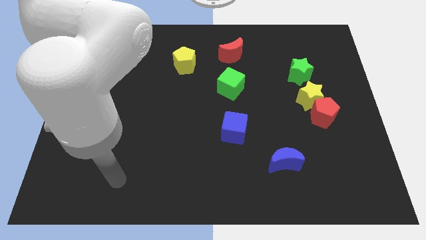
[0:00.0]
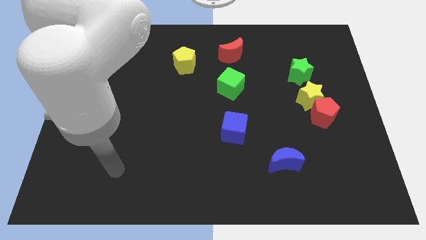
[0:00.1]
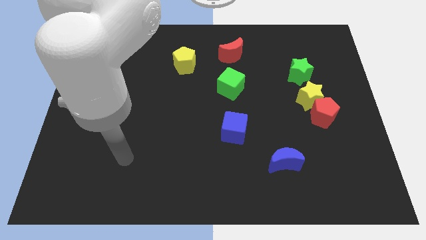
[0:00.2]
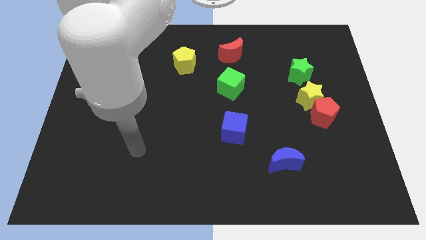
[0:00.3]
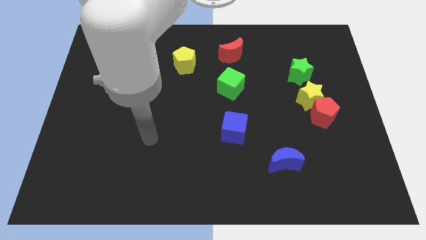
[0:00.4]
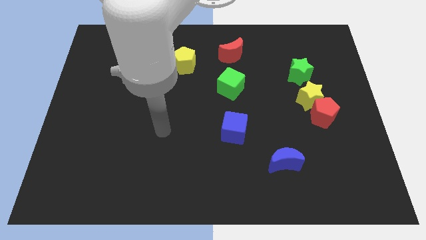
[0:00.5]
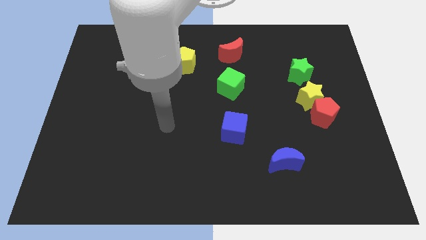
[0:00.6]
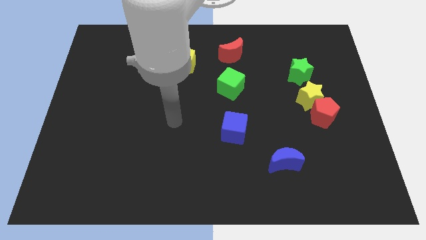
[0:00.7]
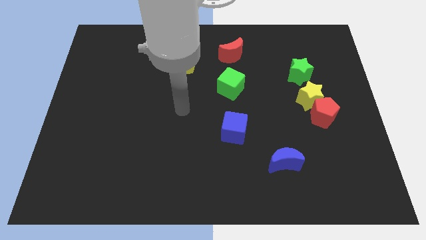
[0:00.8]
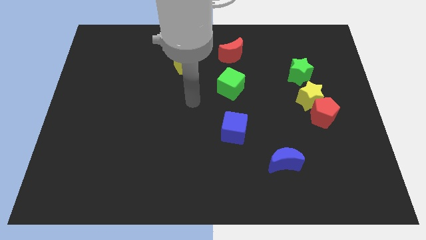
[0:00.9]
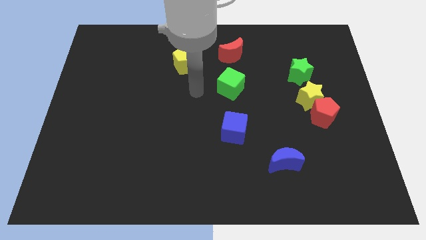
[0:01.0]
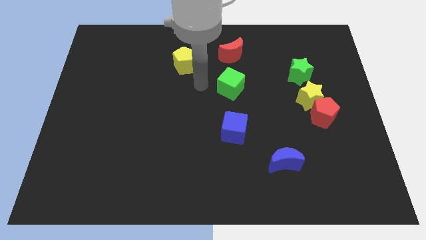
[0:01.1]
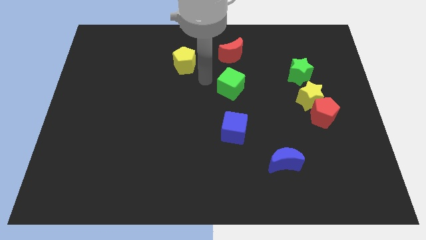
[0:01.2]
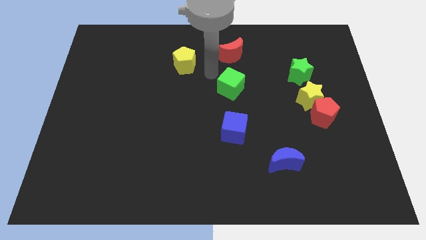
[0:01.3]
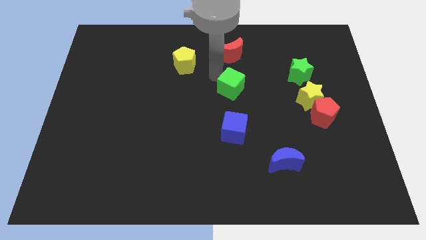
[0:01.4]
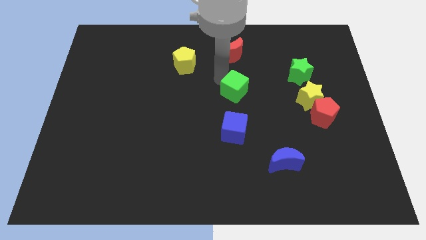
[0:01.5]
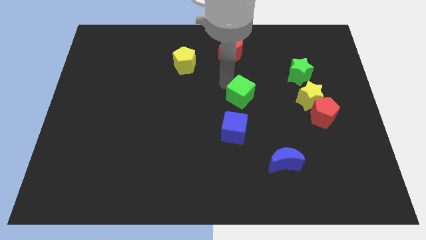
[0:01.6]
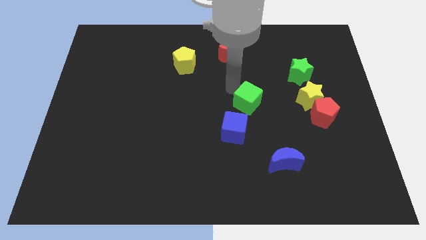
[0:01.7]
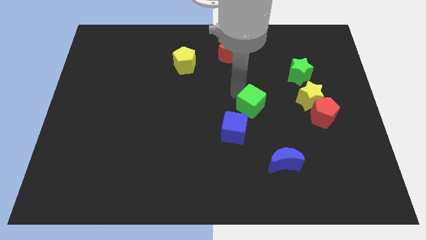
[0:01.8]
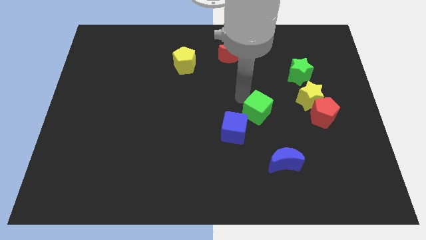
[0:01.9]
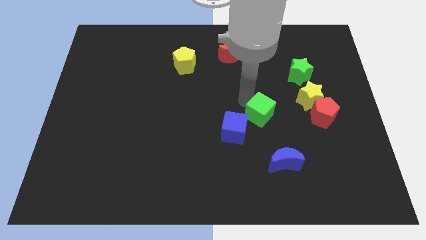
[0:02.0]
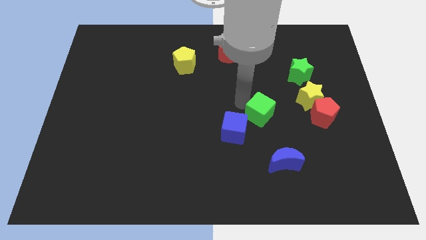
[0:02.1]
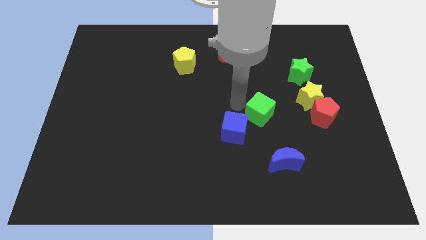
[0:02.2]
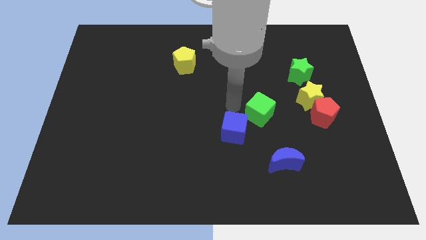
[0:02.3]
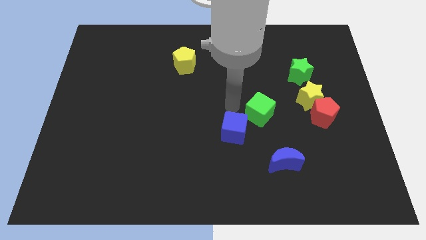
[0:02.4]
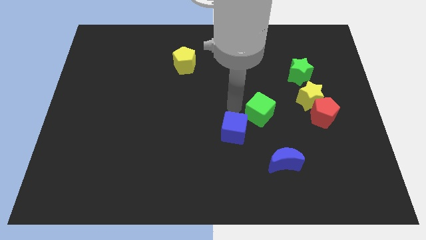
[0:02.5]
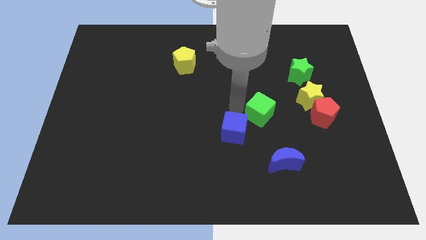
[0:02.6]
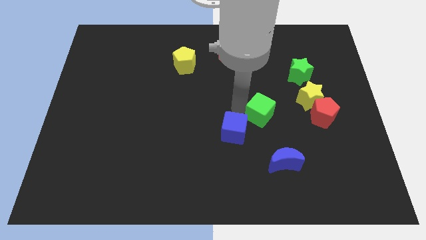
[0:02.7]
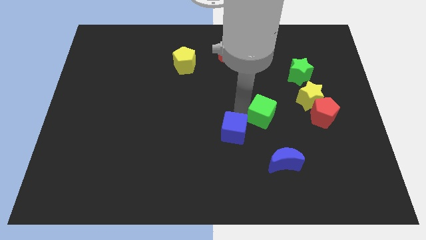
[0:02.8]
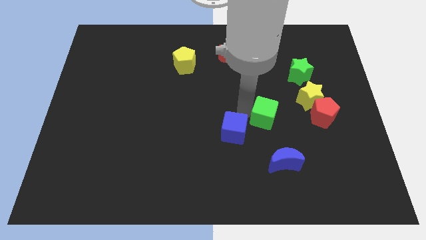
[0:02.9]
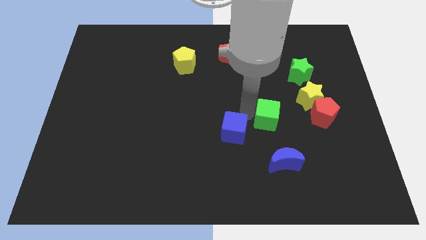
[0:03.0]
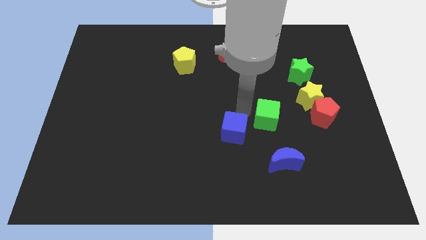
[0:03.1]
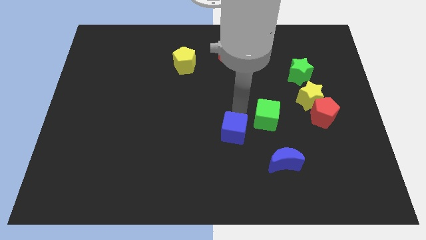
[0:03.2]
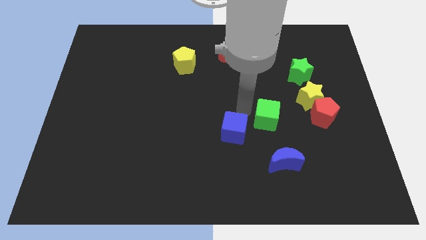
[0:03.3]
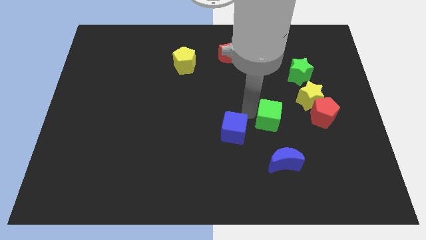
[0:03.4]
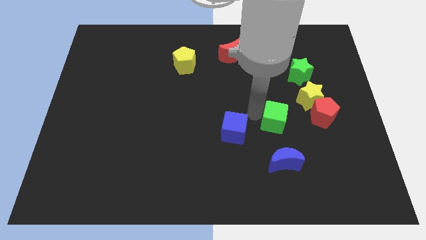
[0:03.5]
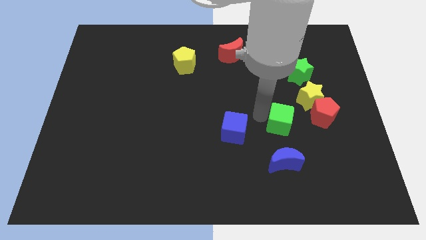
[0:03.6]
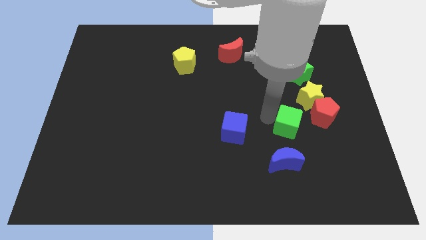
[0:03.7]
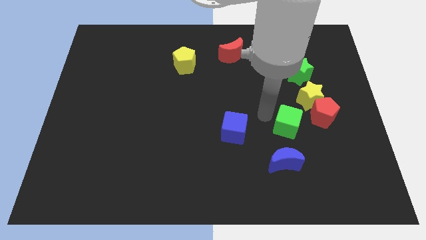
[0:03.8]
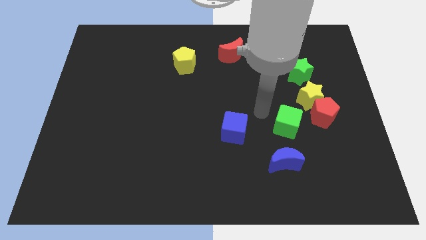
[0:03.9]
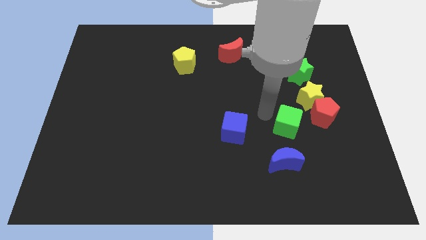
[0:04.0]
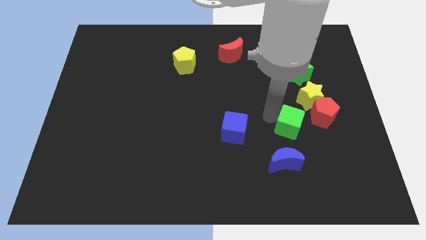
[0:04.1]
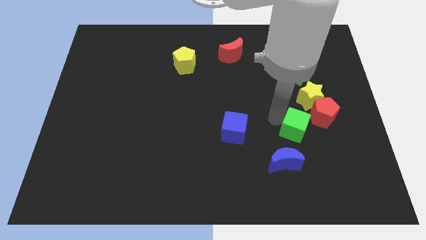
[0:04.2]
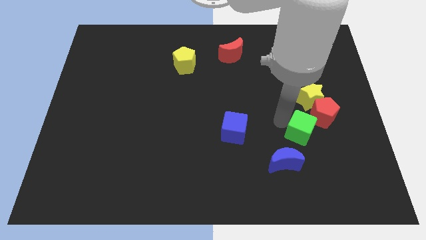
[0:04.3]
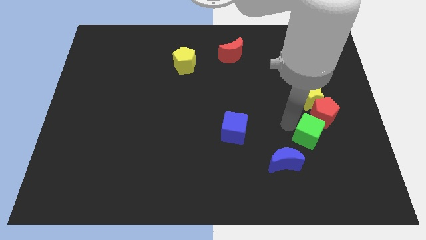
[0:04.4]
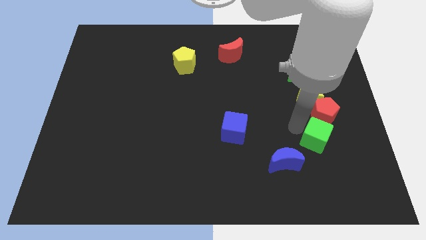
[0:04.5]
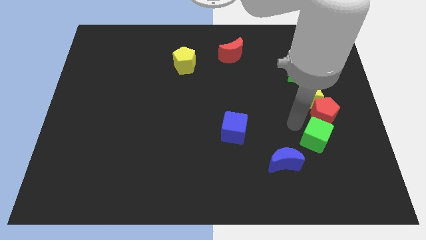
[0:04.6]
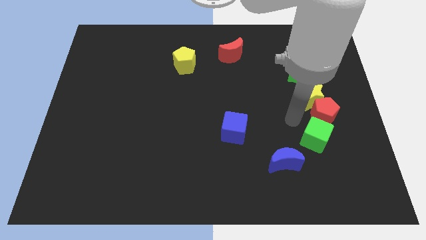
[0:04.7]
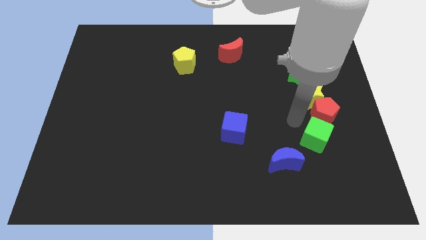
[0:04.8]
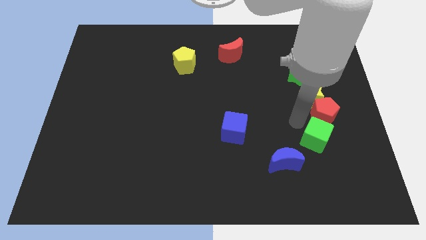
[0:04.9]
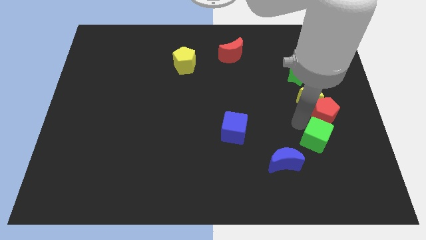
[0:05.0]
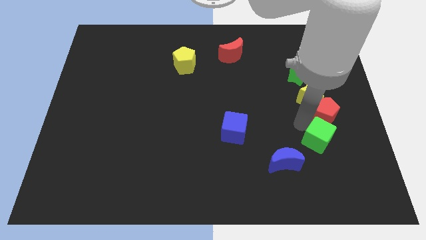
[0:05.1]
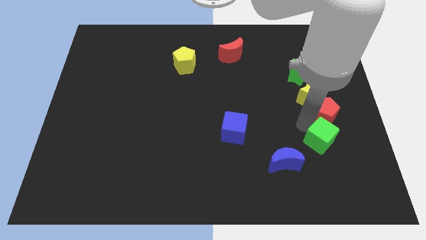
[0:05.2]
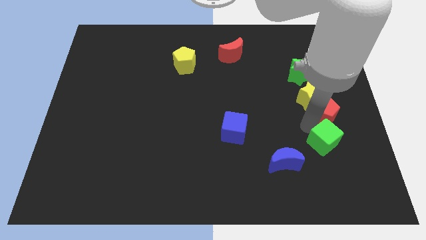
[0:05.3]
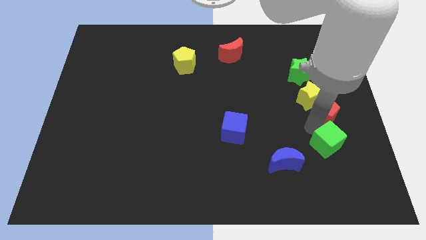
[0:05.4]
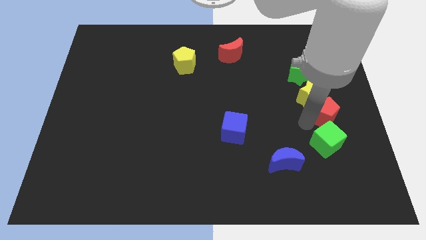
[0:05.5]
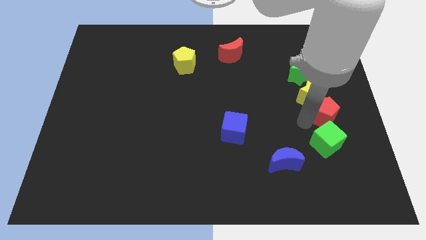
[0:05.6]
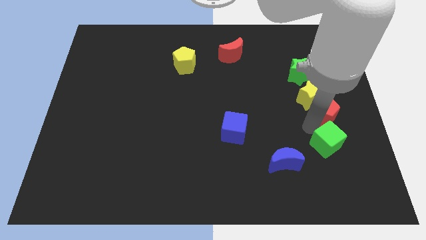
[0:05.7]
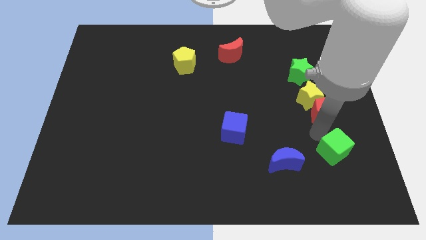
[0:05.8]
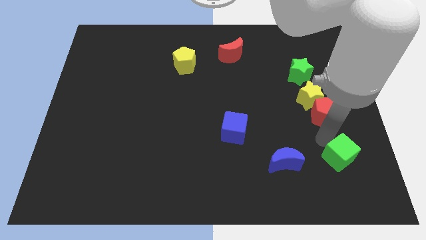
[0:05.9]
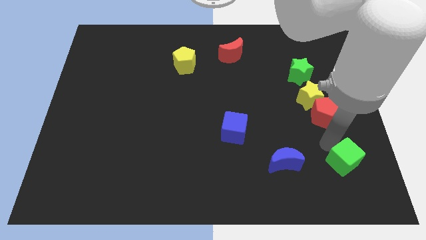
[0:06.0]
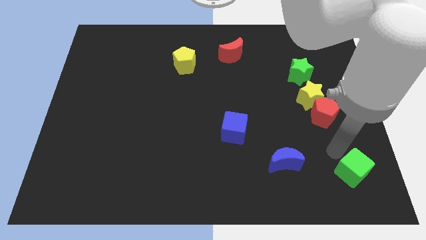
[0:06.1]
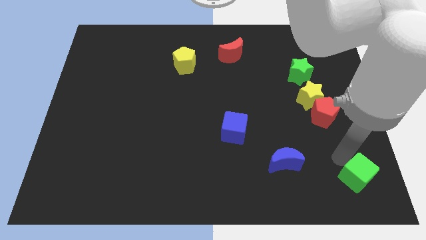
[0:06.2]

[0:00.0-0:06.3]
move the green cube to the lower right corner

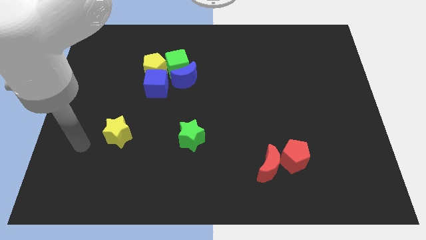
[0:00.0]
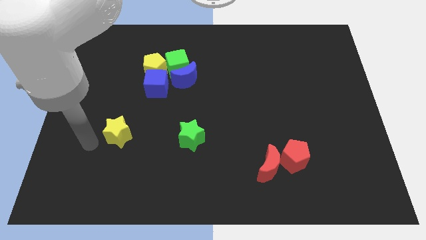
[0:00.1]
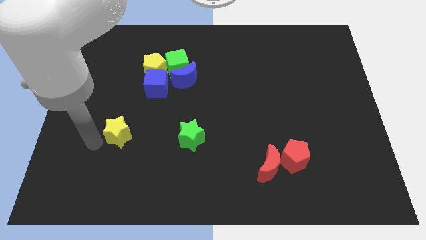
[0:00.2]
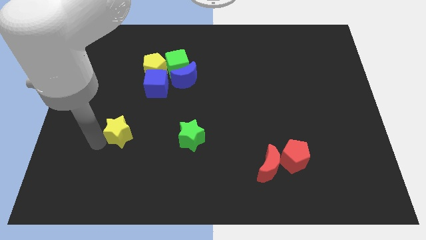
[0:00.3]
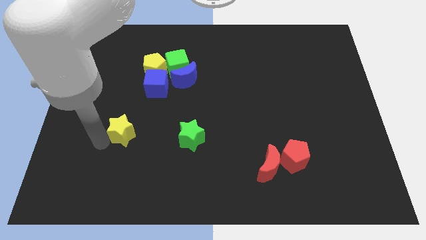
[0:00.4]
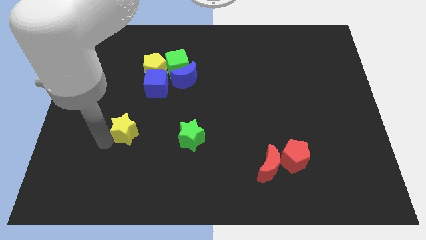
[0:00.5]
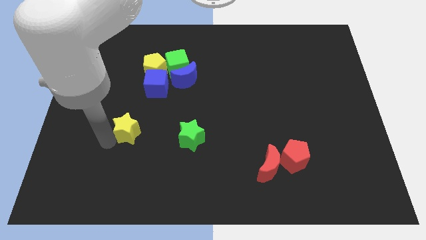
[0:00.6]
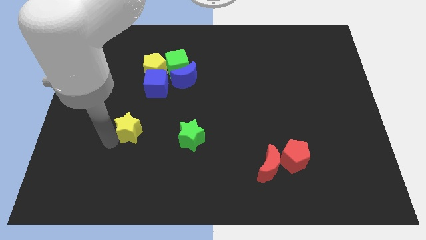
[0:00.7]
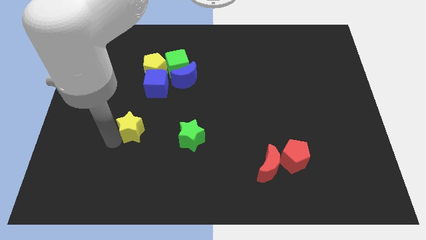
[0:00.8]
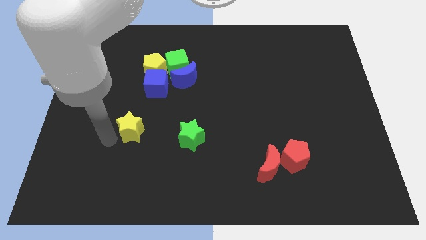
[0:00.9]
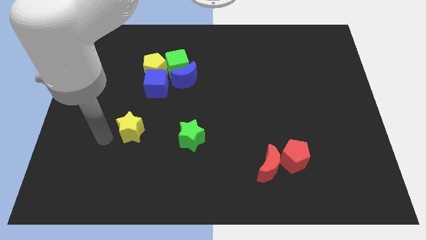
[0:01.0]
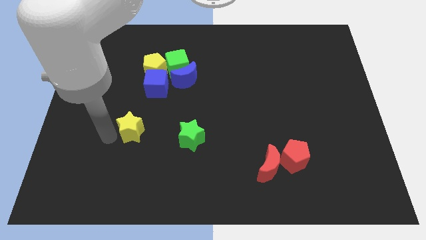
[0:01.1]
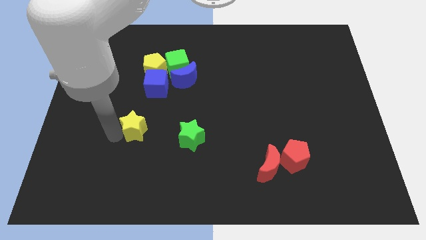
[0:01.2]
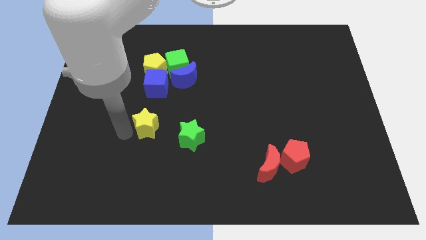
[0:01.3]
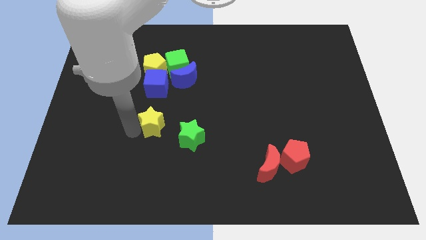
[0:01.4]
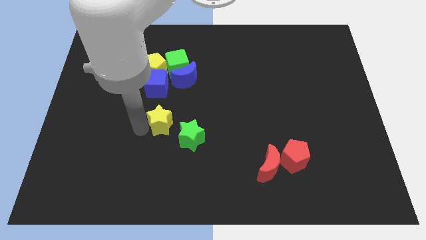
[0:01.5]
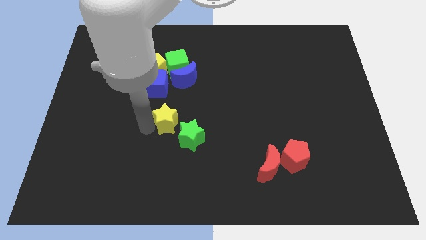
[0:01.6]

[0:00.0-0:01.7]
move the yellow star to the middle of the board

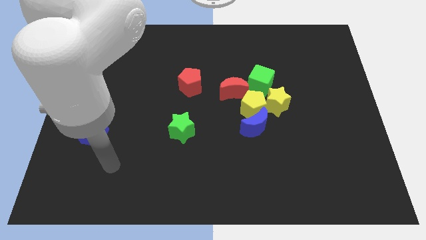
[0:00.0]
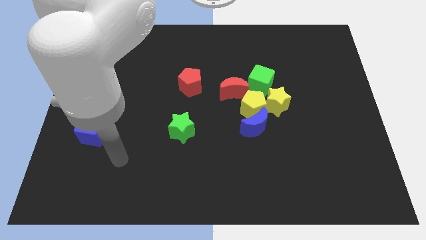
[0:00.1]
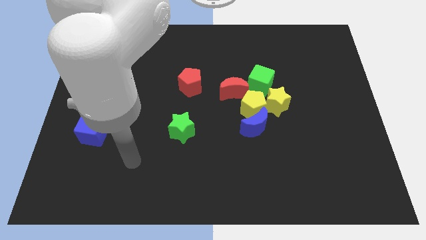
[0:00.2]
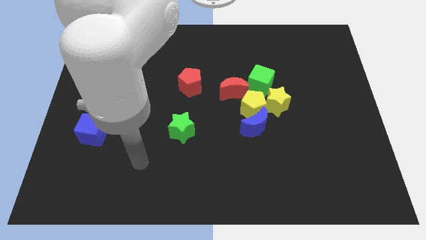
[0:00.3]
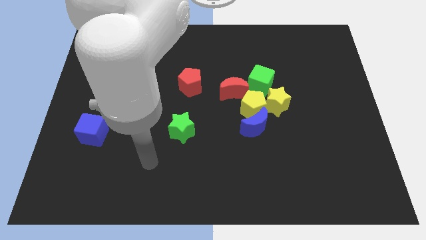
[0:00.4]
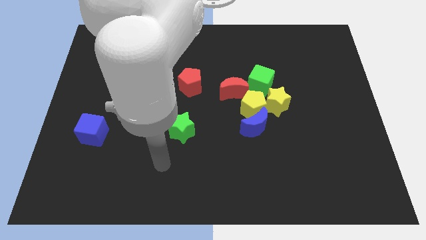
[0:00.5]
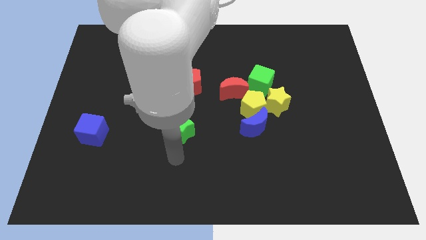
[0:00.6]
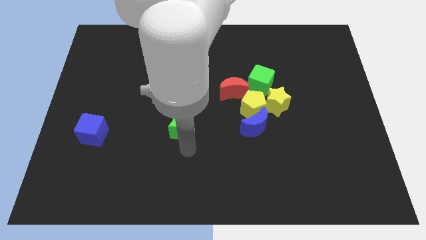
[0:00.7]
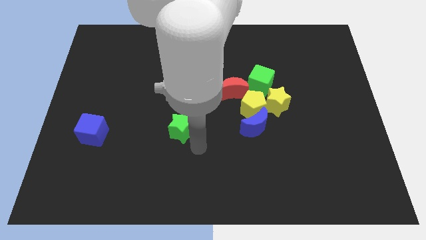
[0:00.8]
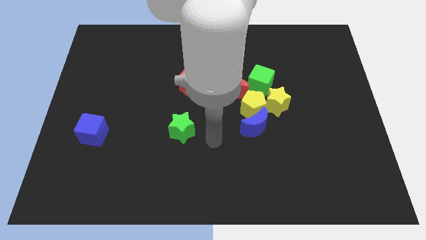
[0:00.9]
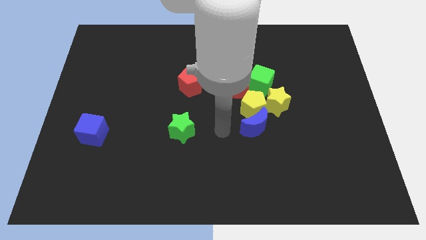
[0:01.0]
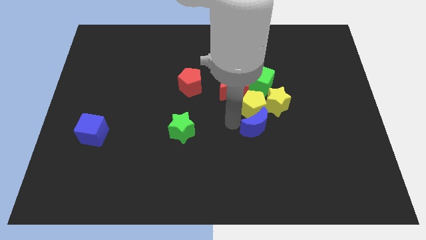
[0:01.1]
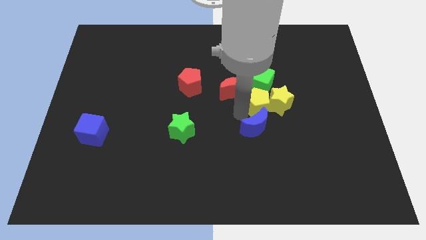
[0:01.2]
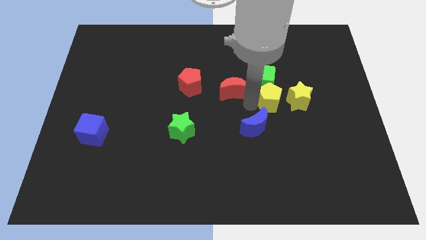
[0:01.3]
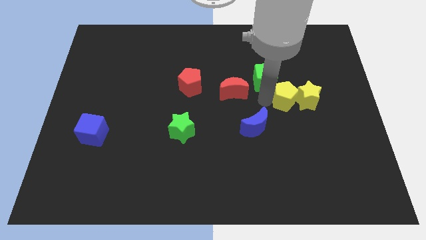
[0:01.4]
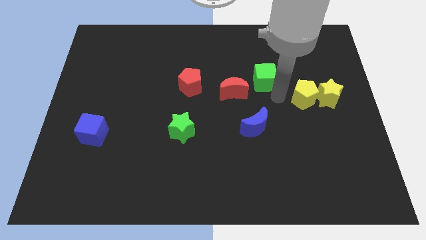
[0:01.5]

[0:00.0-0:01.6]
move the yellow star to the right side
